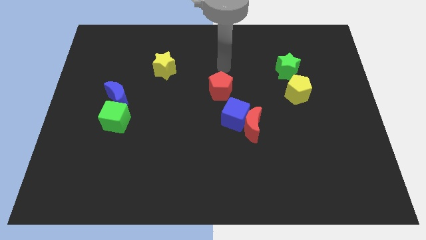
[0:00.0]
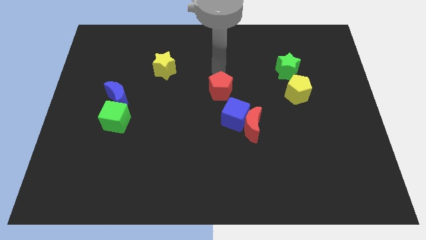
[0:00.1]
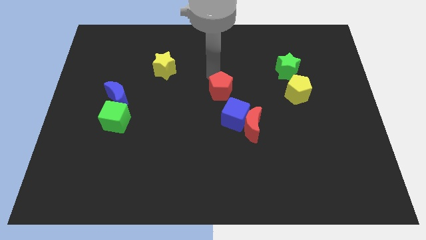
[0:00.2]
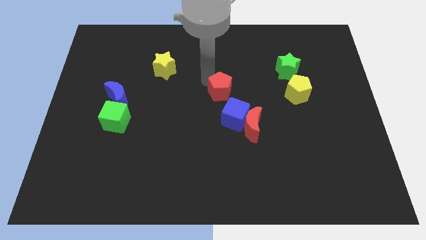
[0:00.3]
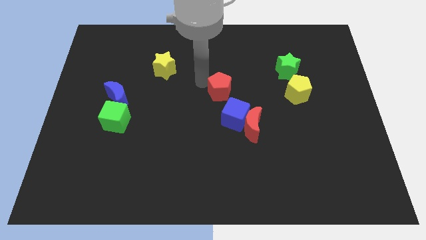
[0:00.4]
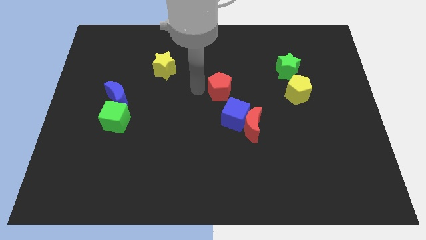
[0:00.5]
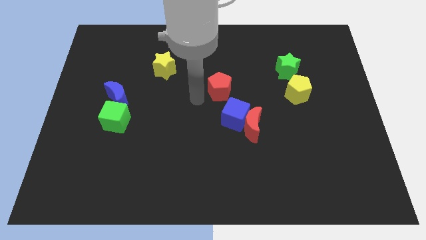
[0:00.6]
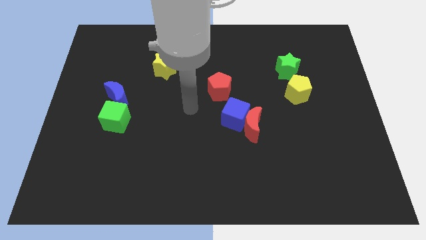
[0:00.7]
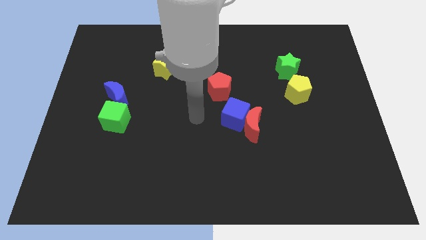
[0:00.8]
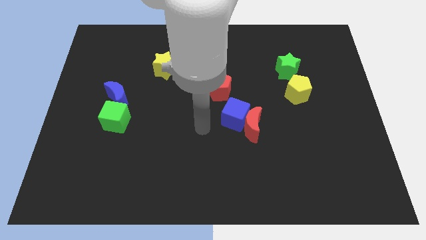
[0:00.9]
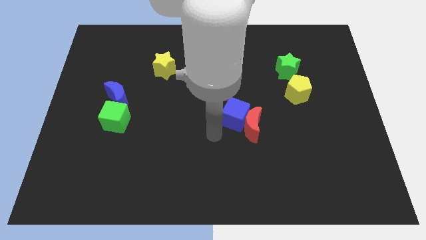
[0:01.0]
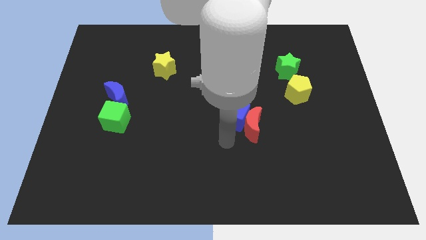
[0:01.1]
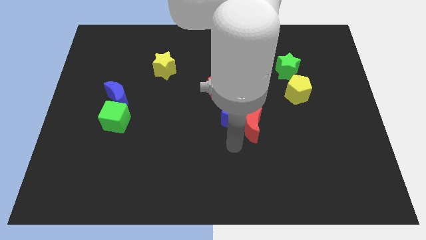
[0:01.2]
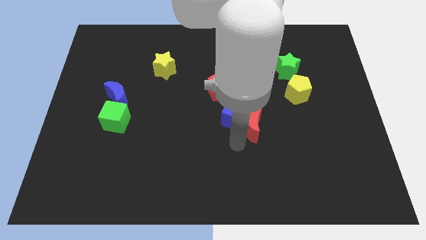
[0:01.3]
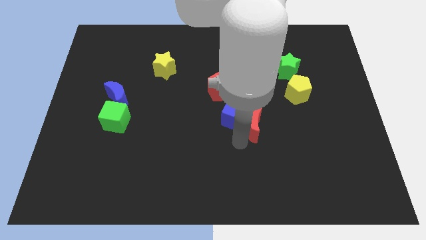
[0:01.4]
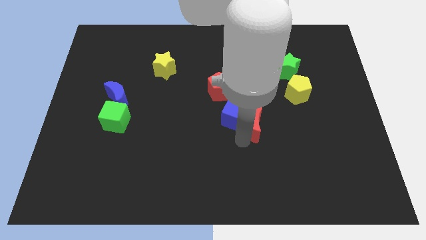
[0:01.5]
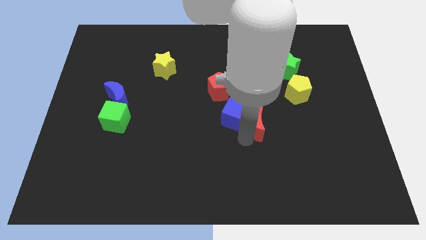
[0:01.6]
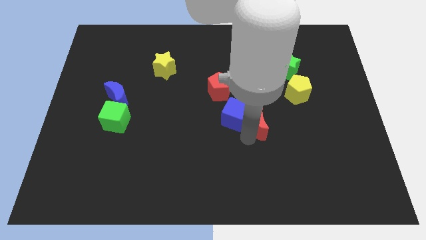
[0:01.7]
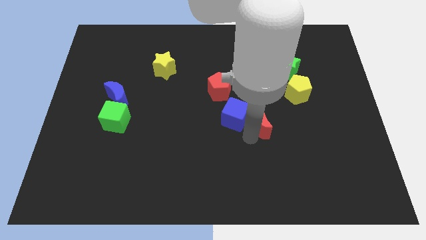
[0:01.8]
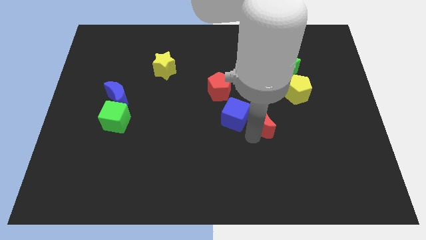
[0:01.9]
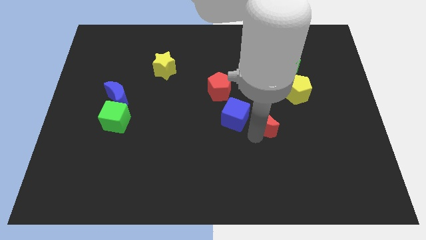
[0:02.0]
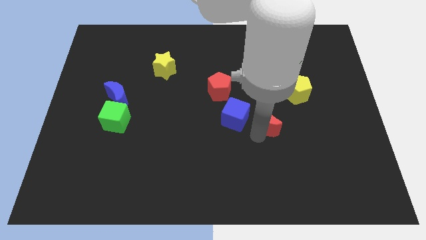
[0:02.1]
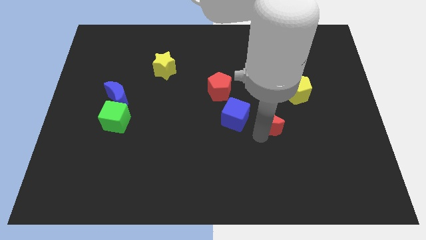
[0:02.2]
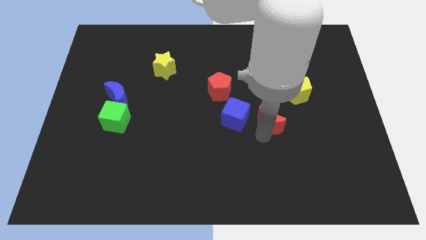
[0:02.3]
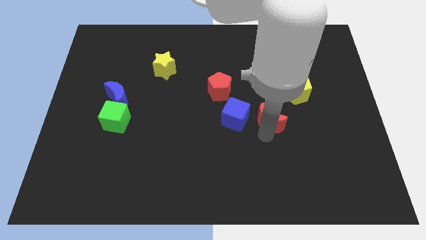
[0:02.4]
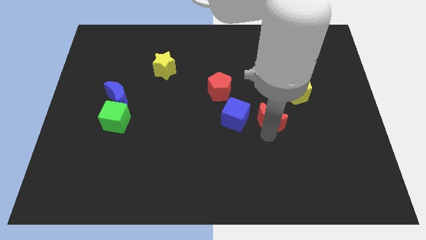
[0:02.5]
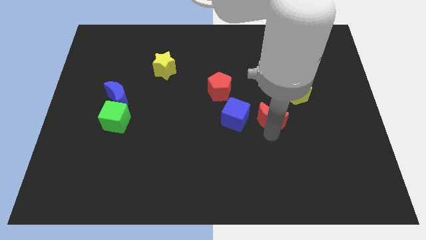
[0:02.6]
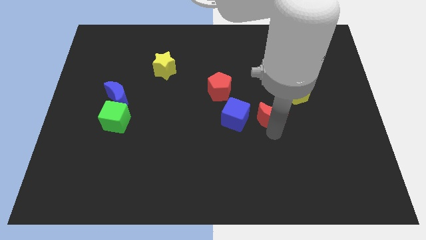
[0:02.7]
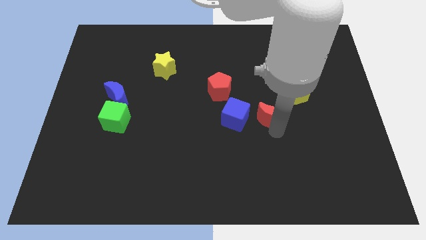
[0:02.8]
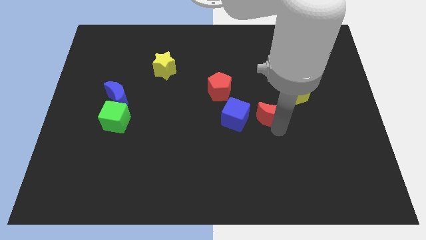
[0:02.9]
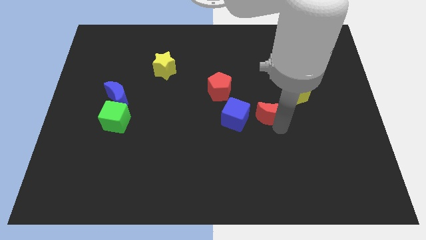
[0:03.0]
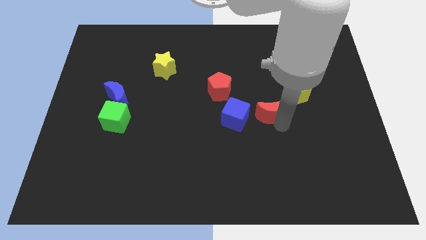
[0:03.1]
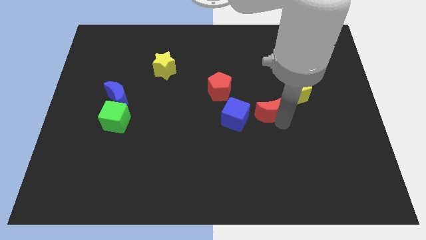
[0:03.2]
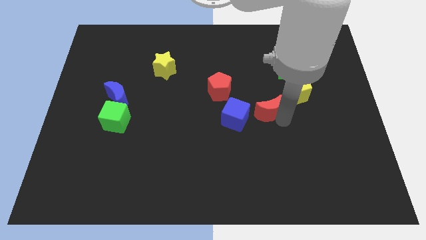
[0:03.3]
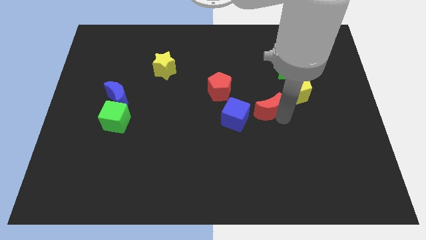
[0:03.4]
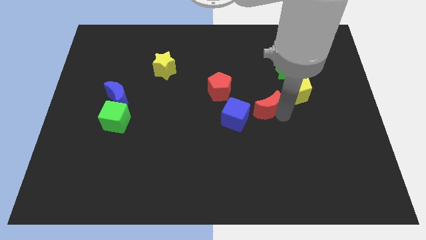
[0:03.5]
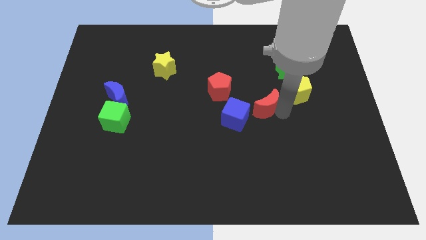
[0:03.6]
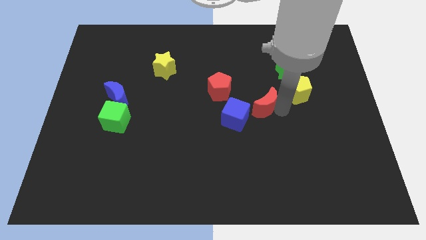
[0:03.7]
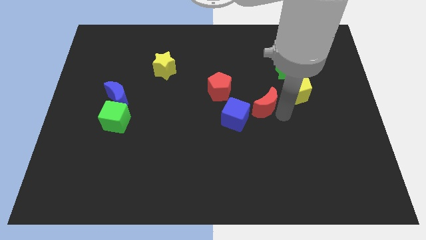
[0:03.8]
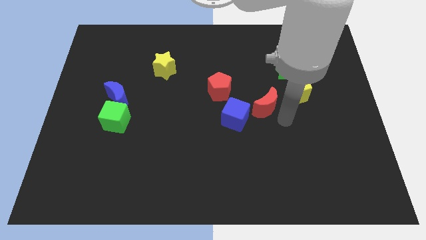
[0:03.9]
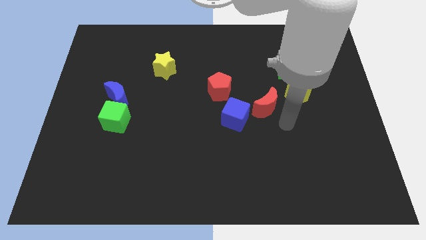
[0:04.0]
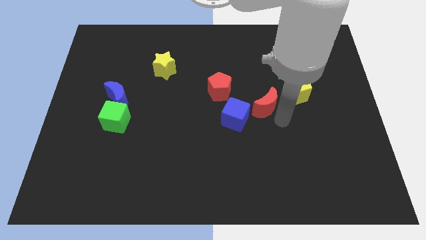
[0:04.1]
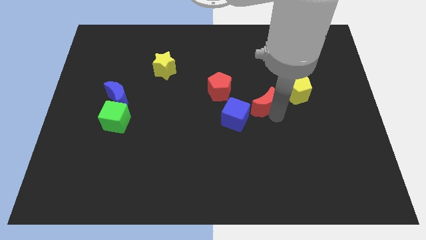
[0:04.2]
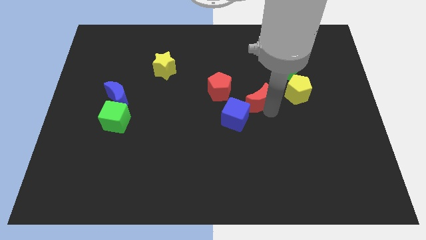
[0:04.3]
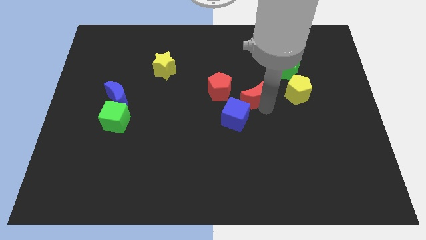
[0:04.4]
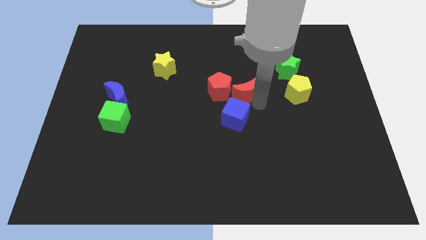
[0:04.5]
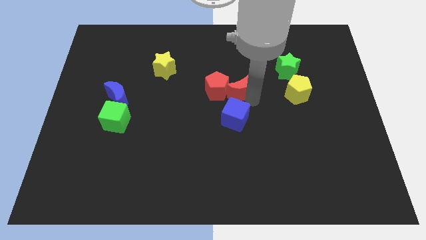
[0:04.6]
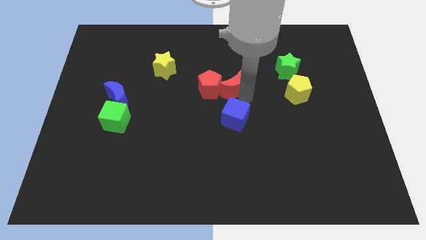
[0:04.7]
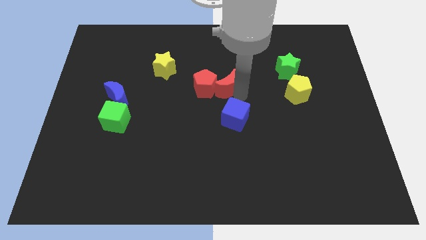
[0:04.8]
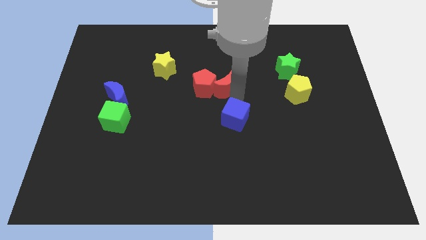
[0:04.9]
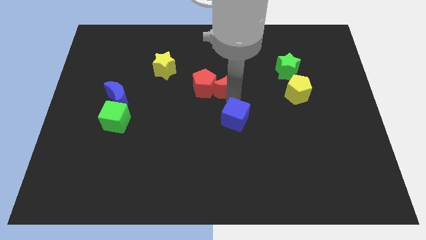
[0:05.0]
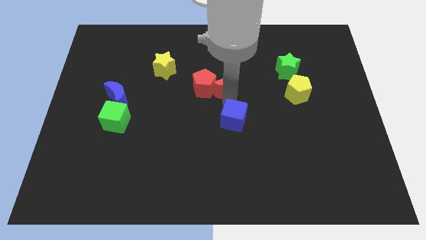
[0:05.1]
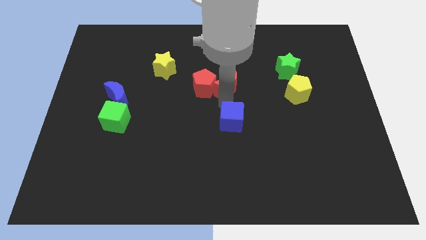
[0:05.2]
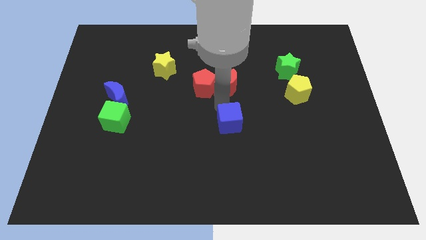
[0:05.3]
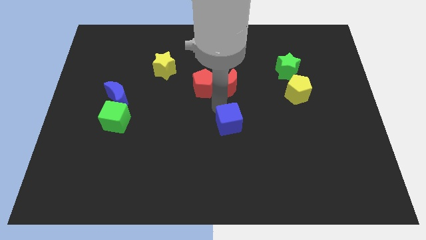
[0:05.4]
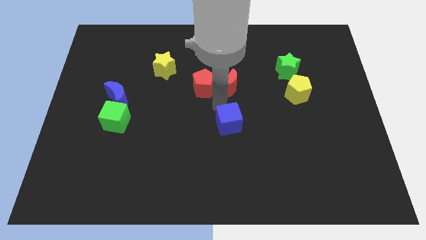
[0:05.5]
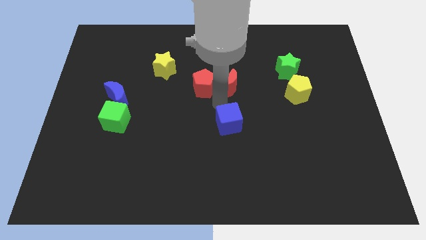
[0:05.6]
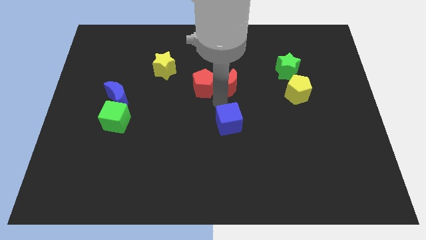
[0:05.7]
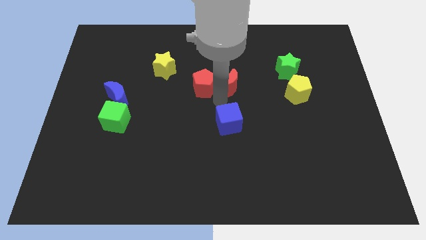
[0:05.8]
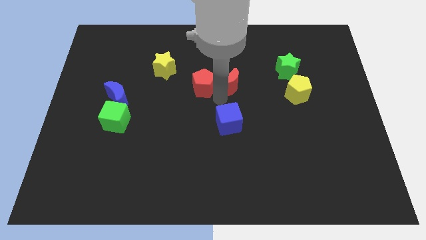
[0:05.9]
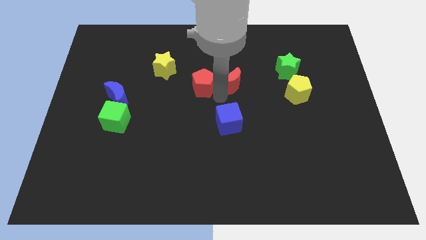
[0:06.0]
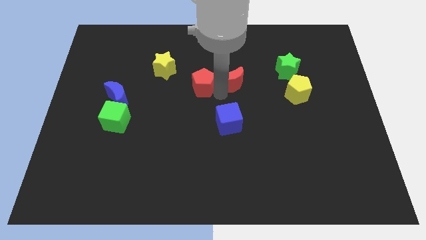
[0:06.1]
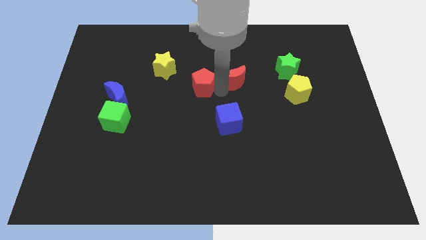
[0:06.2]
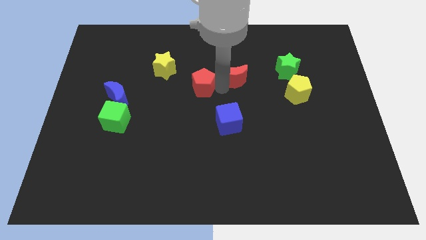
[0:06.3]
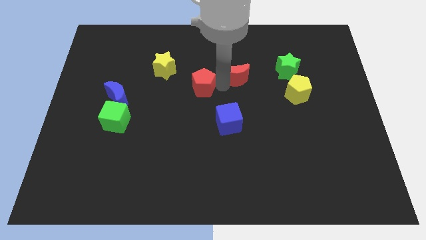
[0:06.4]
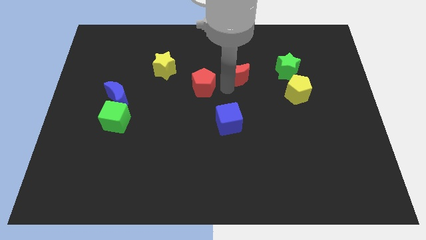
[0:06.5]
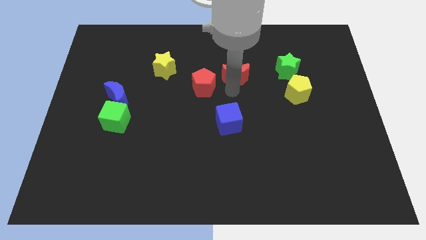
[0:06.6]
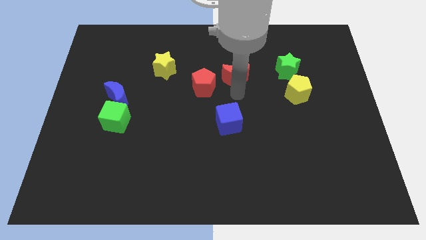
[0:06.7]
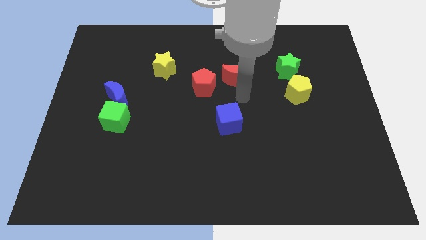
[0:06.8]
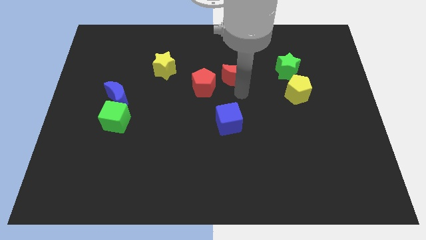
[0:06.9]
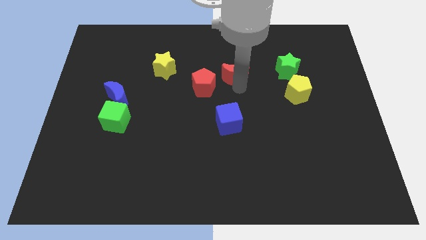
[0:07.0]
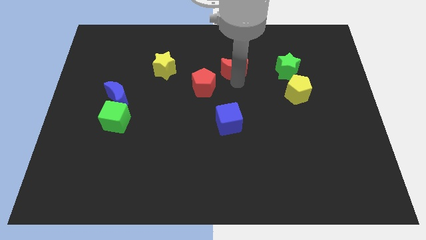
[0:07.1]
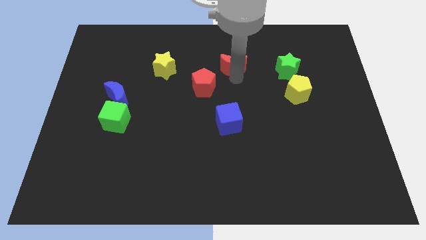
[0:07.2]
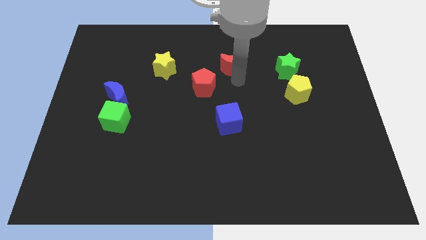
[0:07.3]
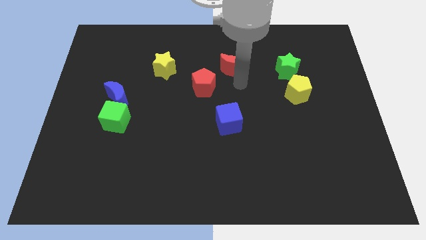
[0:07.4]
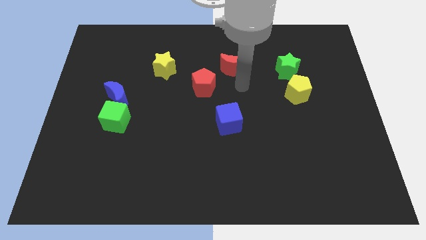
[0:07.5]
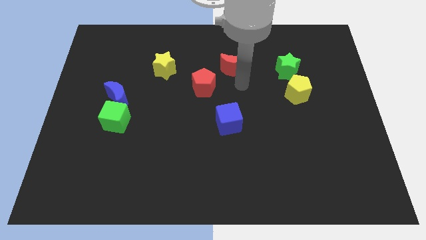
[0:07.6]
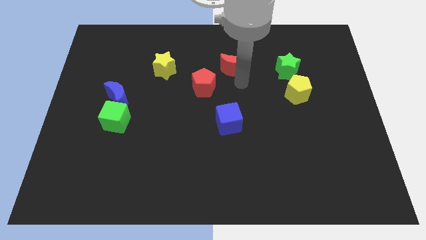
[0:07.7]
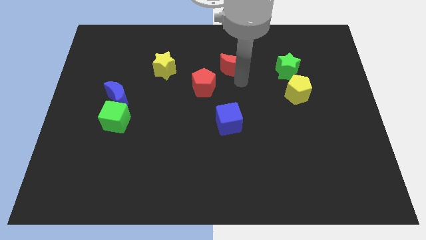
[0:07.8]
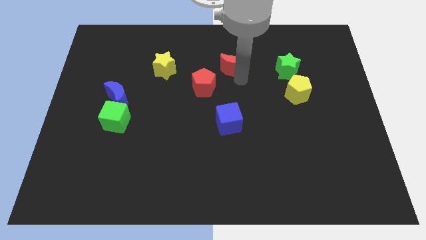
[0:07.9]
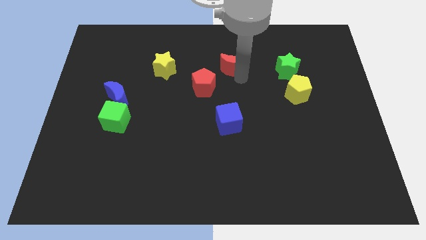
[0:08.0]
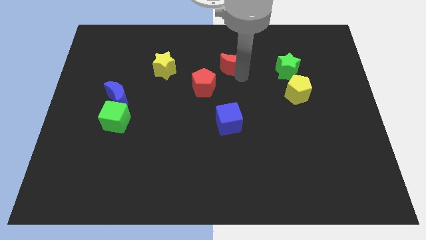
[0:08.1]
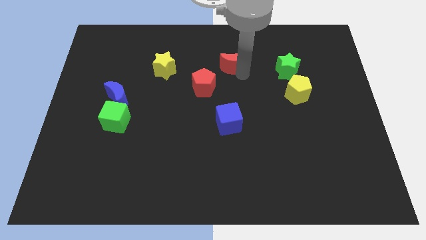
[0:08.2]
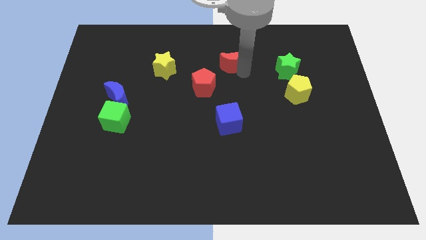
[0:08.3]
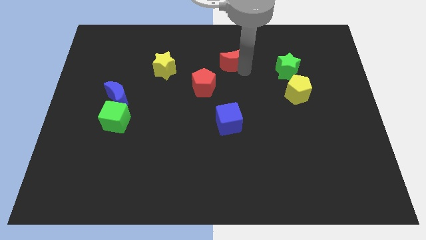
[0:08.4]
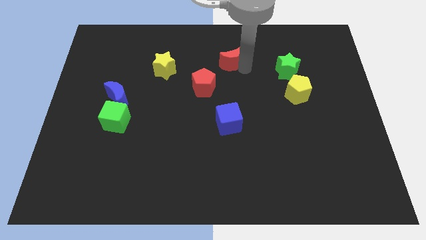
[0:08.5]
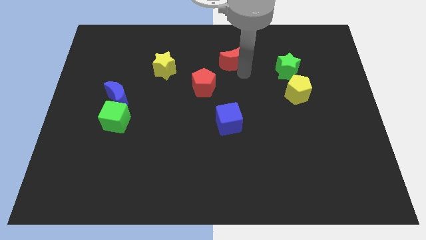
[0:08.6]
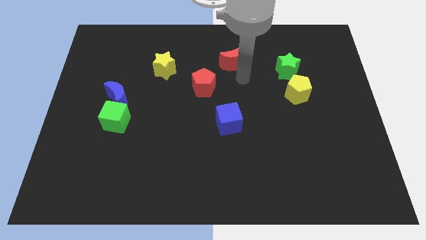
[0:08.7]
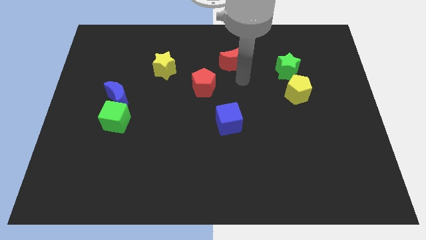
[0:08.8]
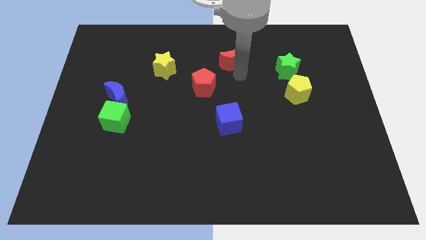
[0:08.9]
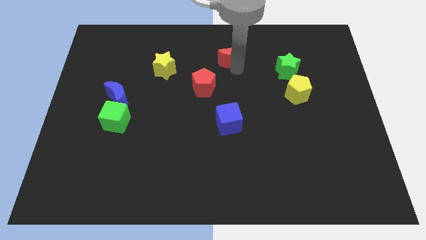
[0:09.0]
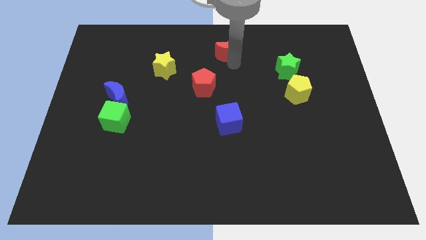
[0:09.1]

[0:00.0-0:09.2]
push the red moon to the top side
